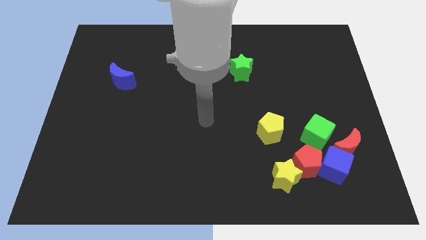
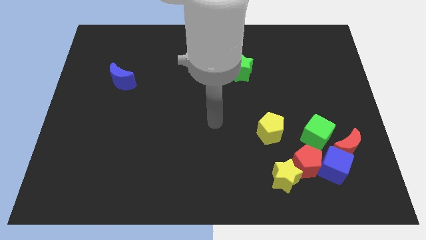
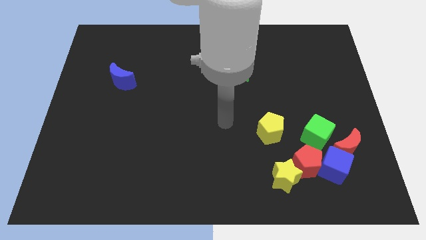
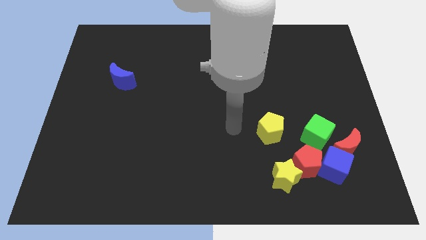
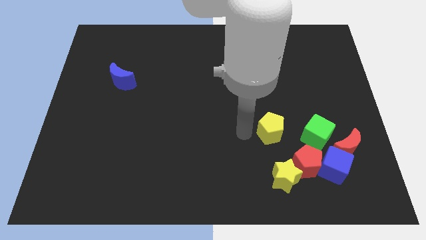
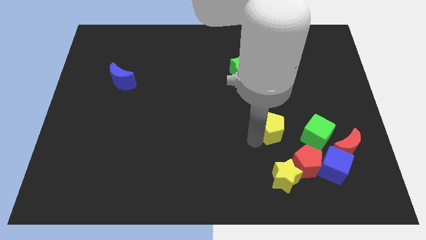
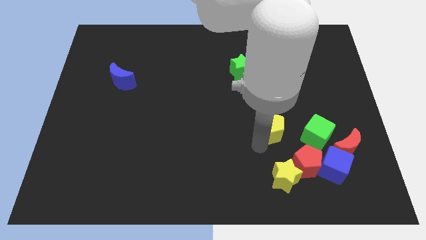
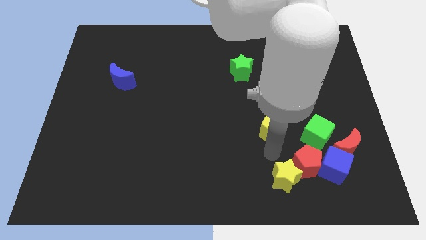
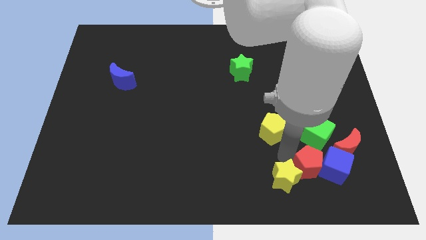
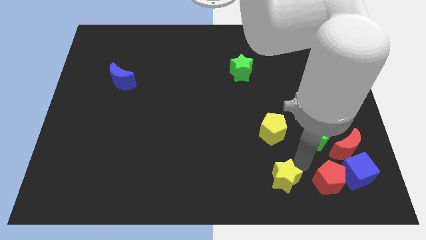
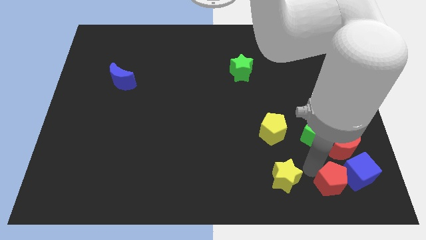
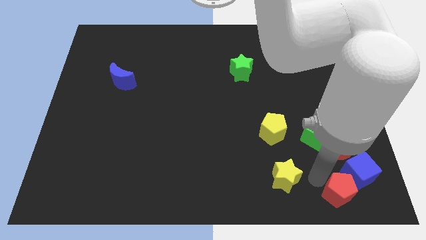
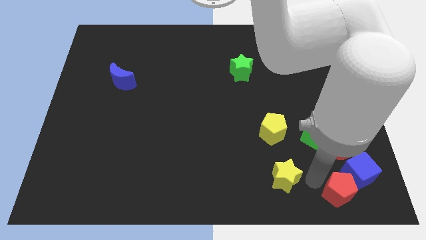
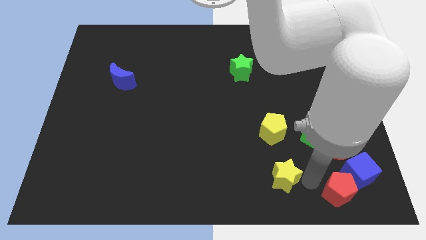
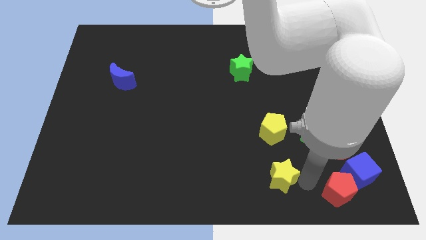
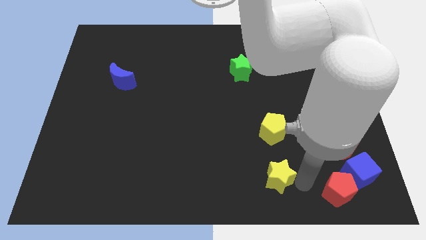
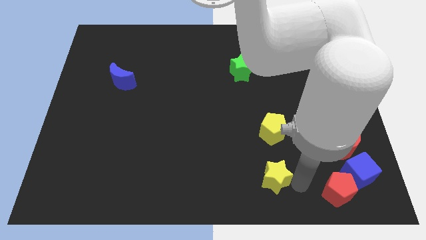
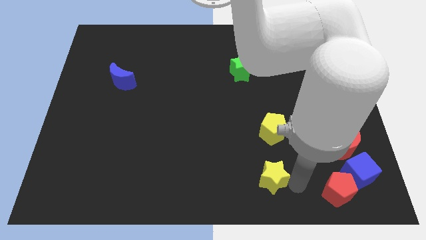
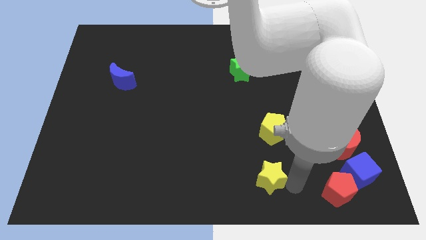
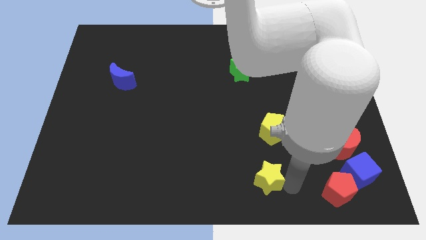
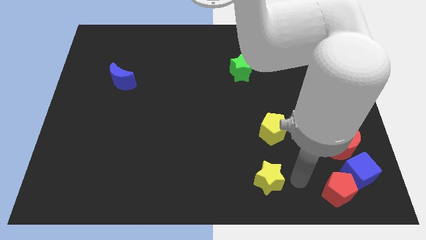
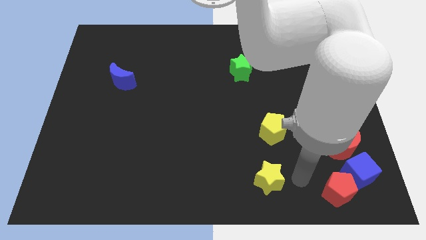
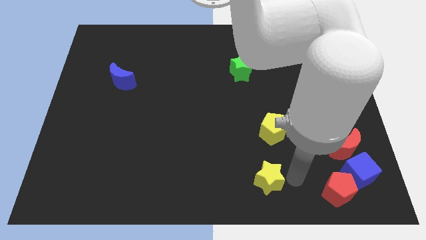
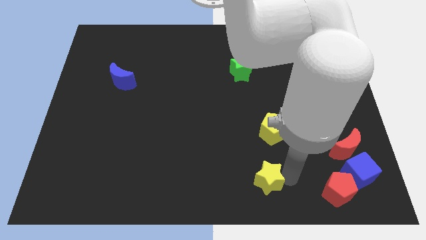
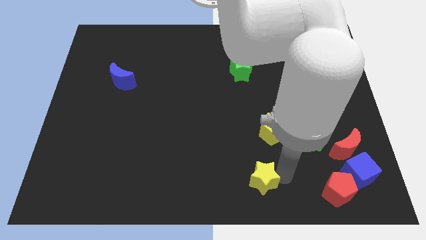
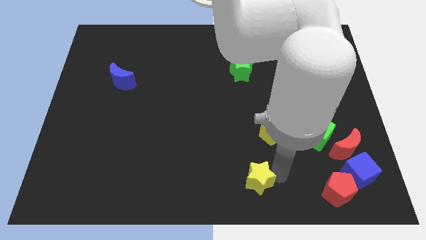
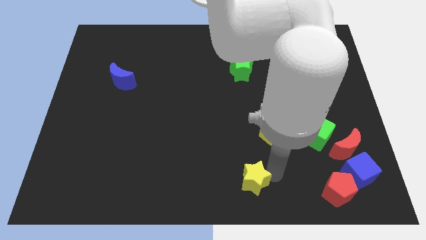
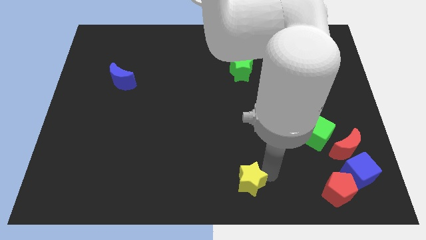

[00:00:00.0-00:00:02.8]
push the yellow star left a little

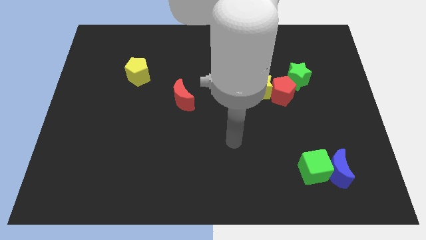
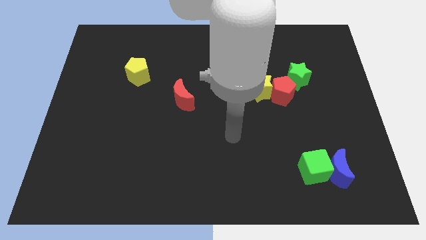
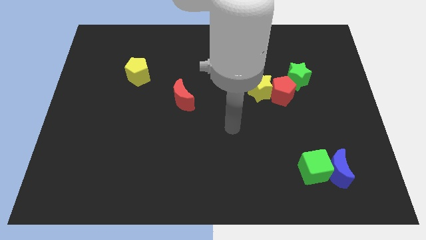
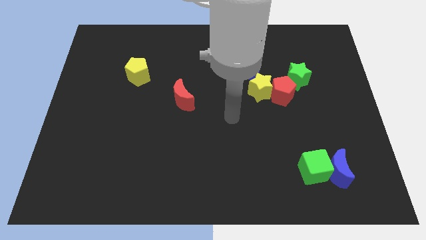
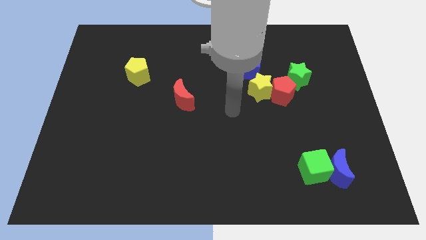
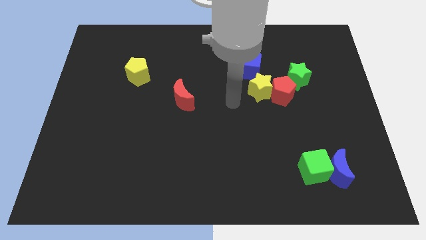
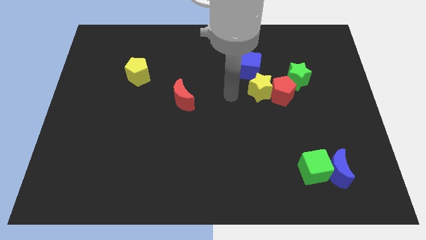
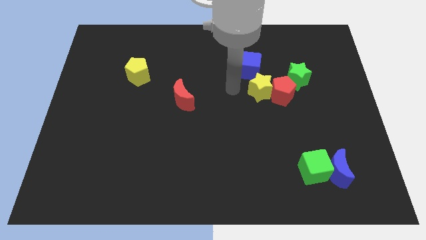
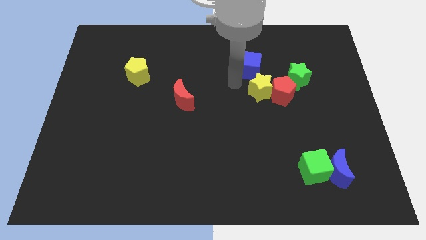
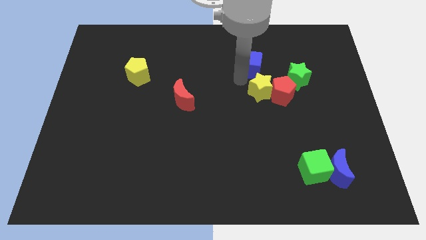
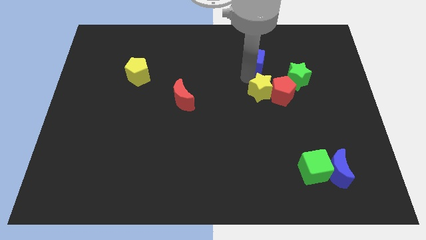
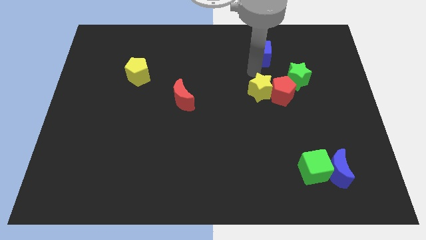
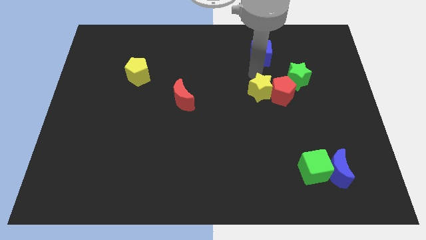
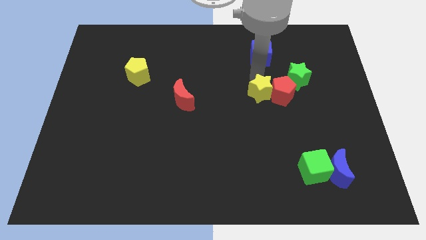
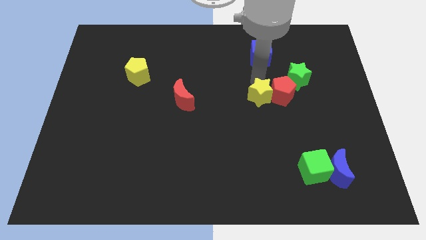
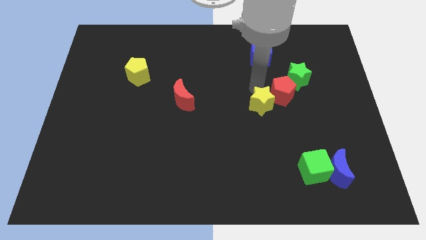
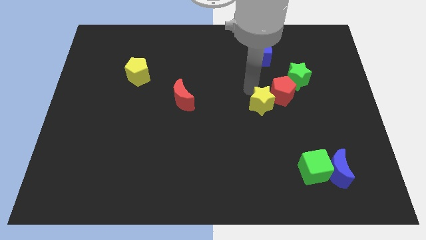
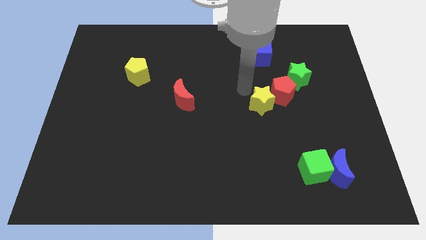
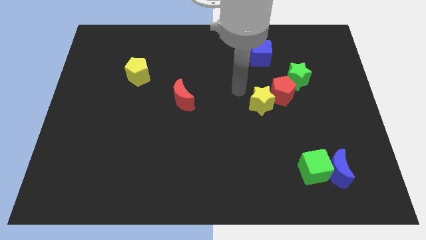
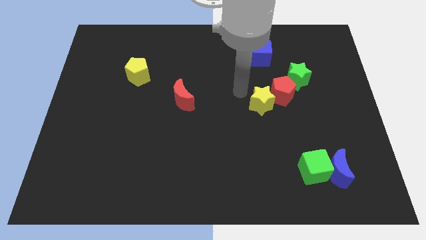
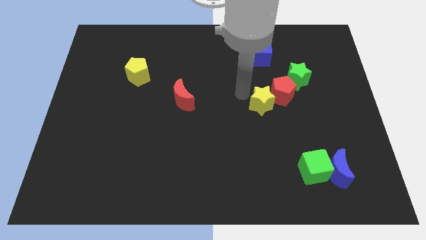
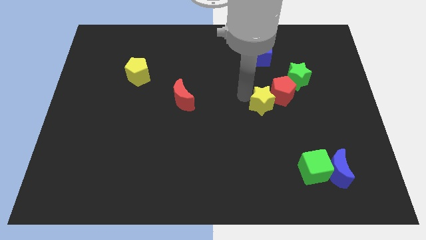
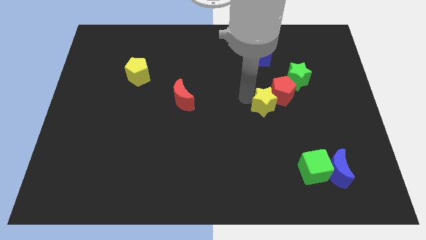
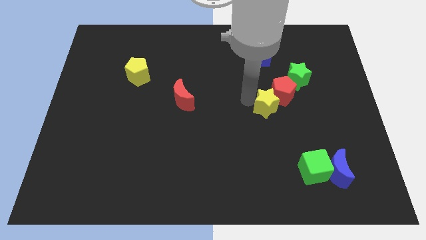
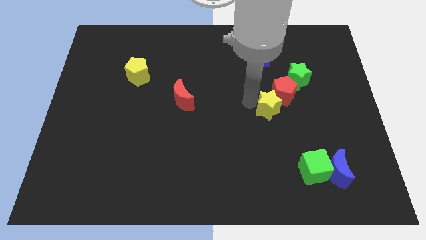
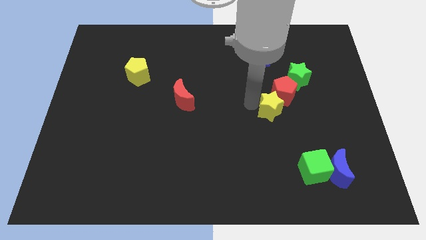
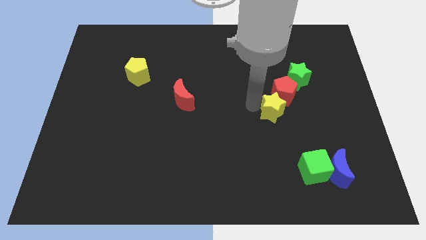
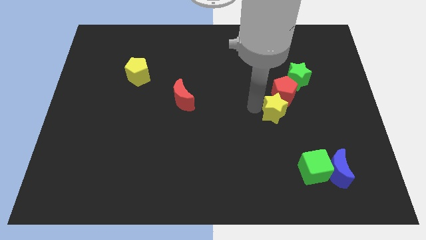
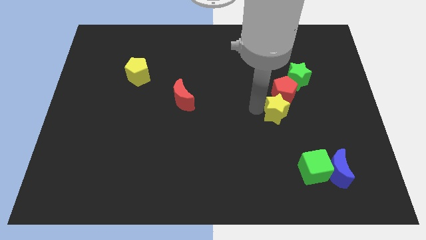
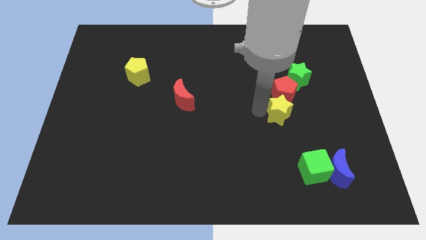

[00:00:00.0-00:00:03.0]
push the yellow star down and then to the right a bit

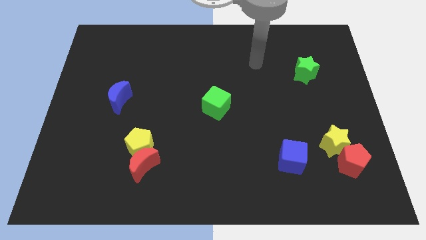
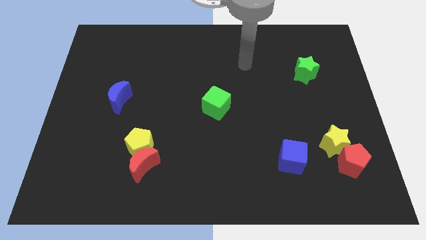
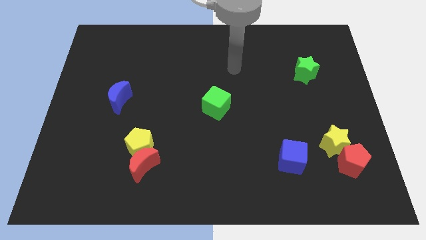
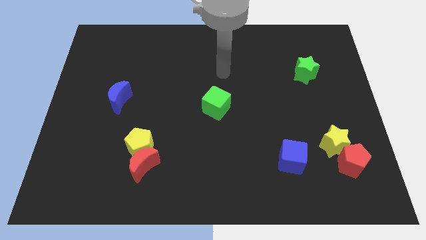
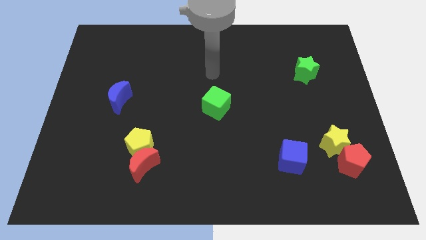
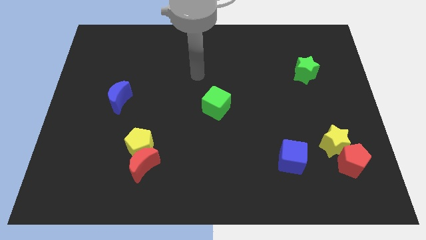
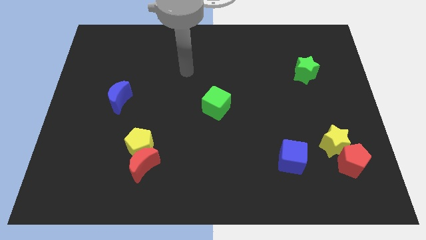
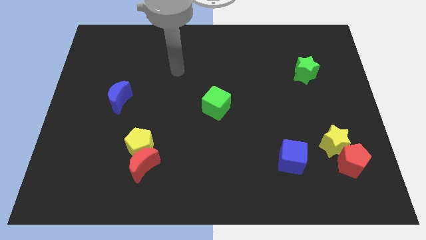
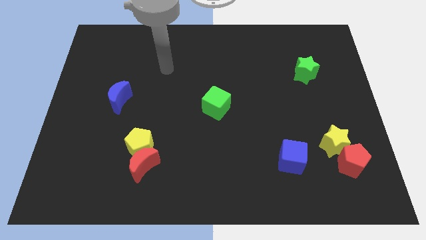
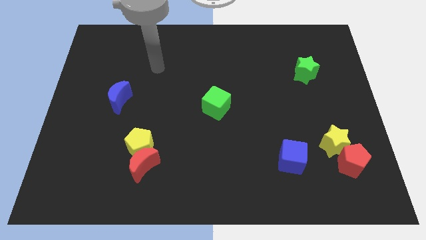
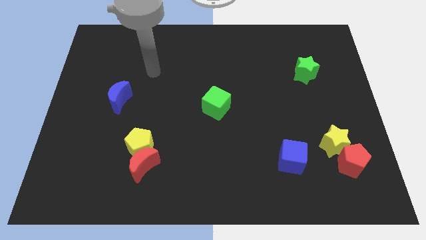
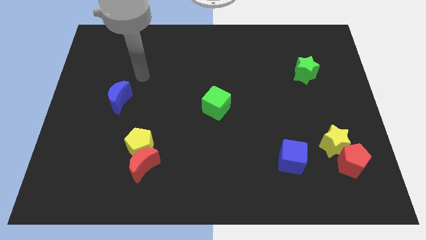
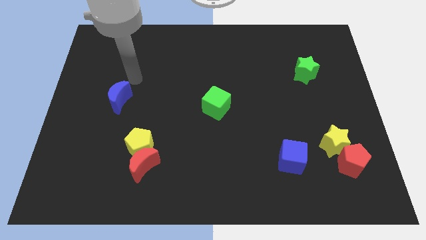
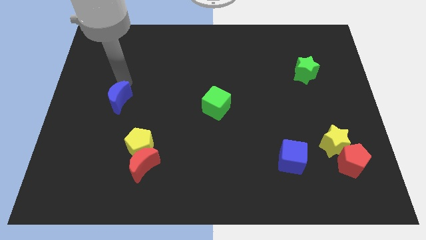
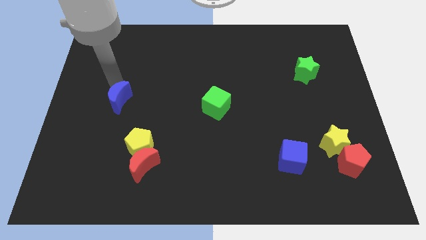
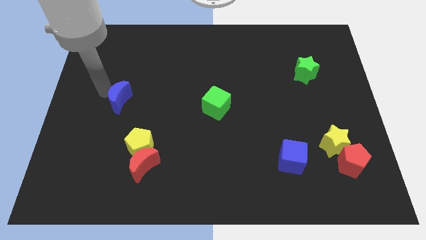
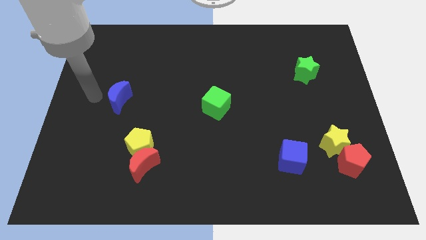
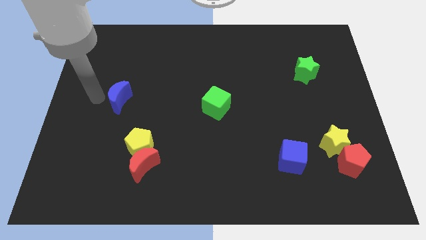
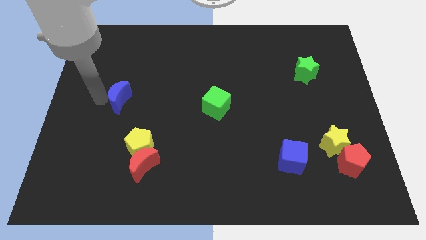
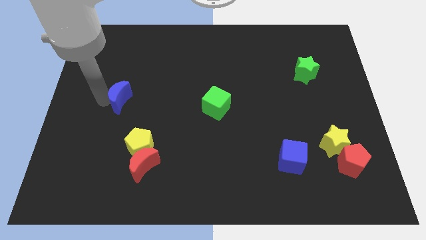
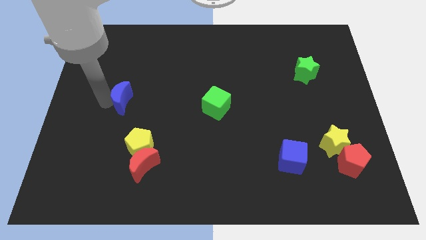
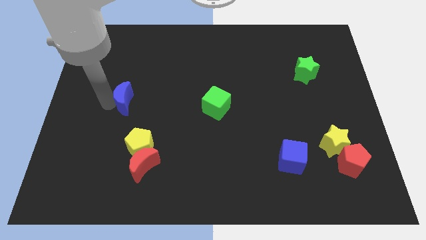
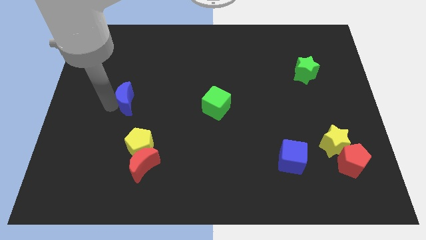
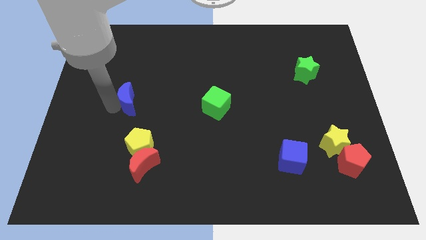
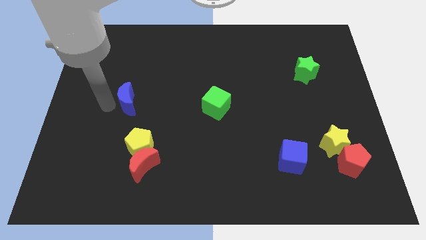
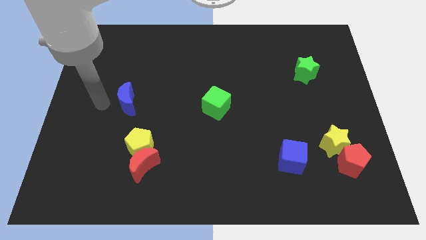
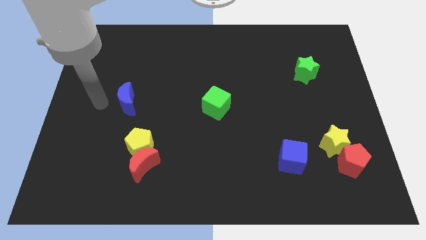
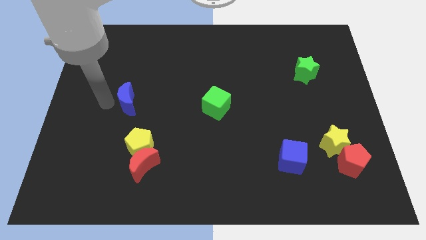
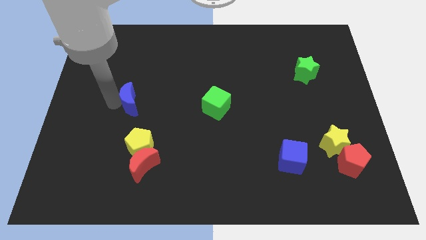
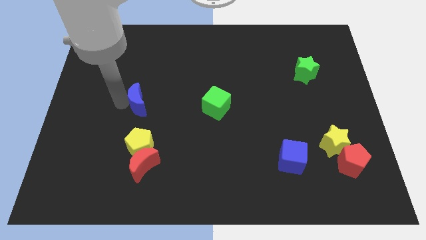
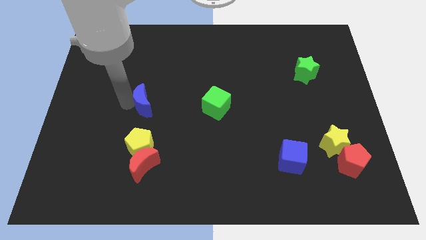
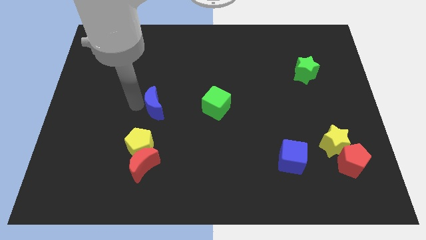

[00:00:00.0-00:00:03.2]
push the blue moon right a little
